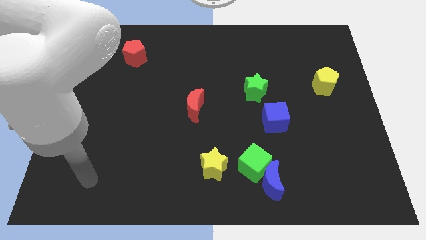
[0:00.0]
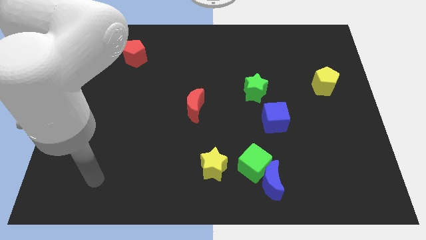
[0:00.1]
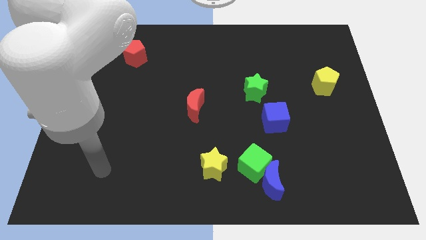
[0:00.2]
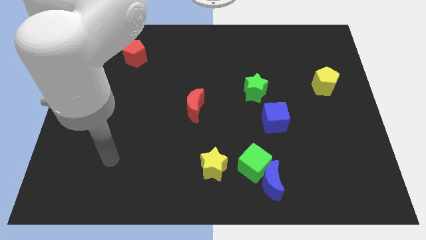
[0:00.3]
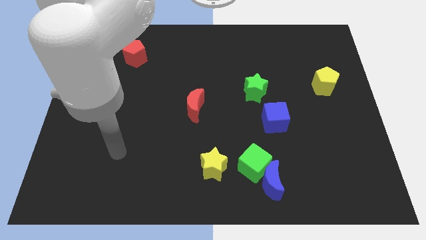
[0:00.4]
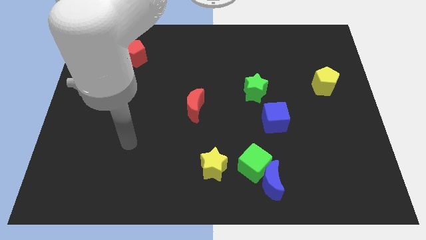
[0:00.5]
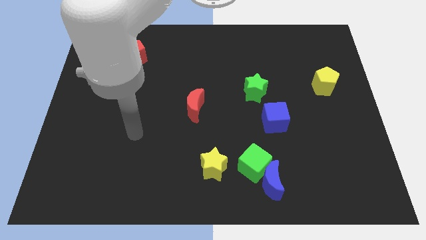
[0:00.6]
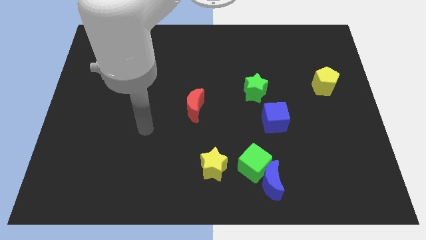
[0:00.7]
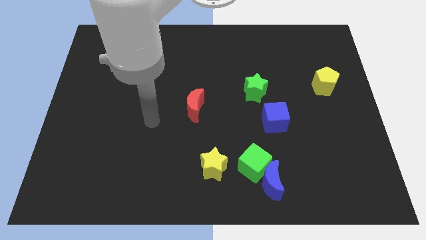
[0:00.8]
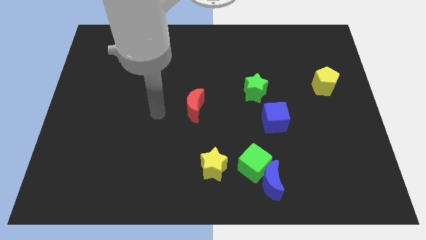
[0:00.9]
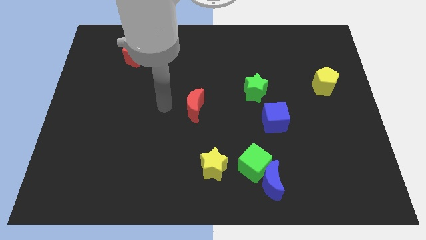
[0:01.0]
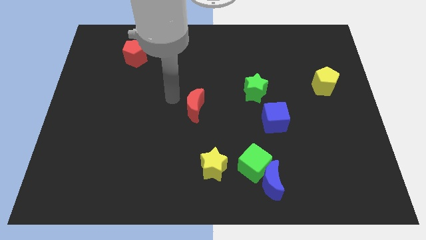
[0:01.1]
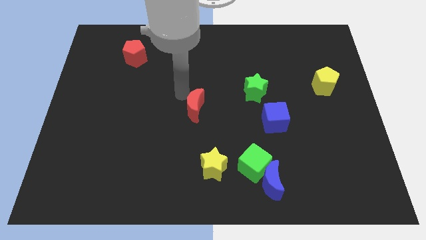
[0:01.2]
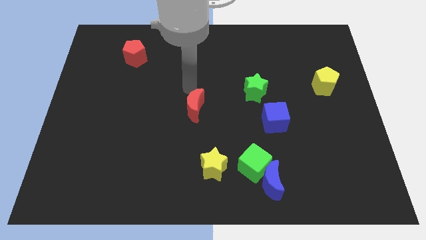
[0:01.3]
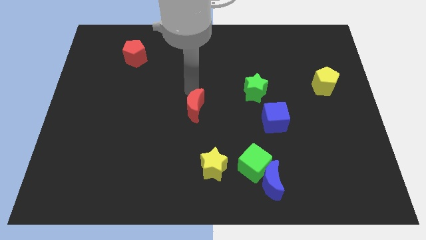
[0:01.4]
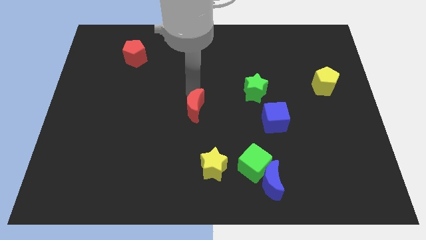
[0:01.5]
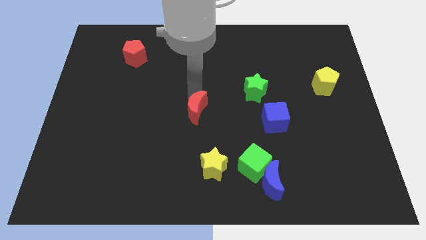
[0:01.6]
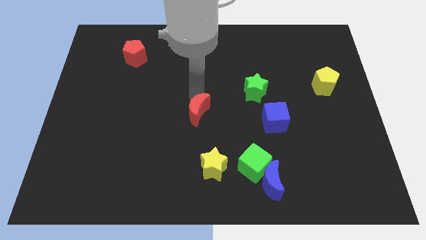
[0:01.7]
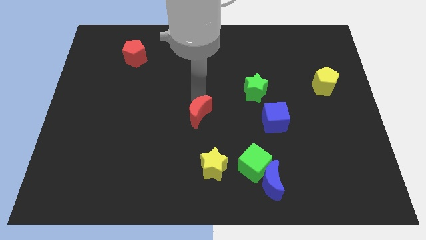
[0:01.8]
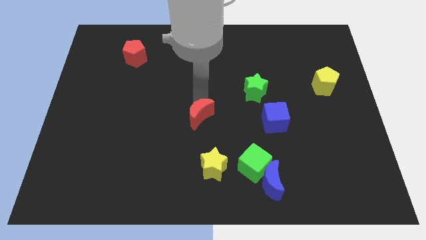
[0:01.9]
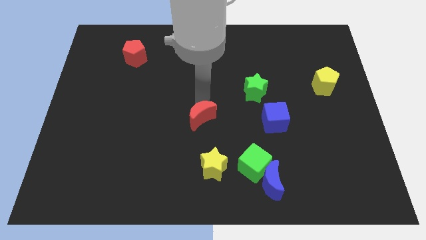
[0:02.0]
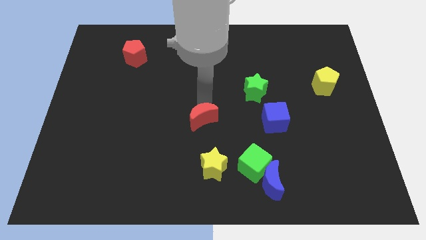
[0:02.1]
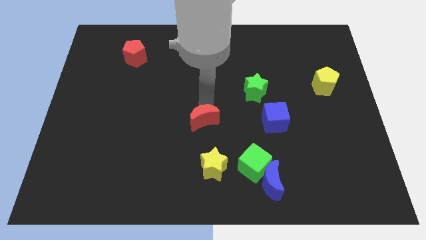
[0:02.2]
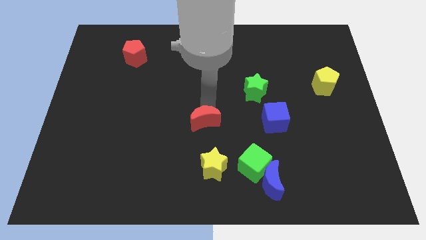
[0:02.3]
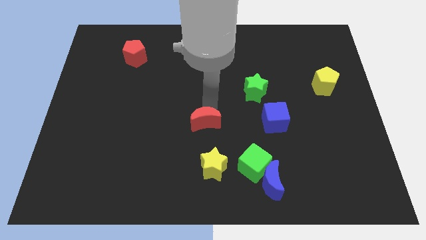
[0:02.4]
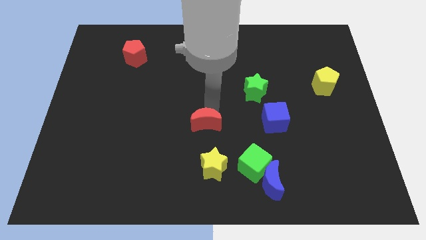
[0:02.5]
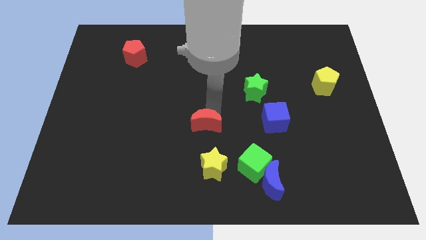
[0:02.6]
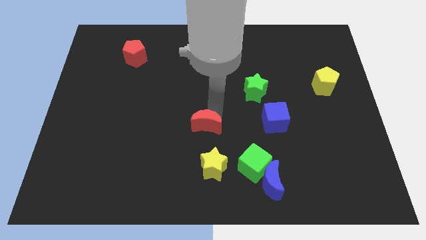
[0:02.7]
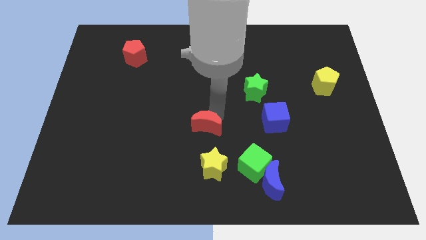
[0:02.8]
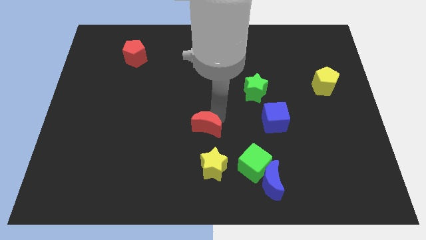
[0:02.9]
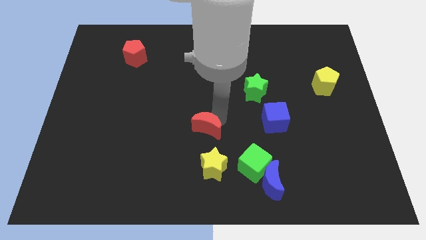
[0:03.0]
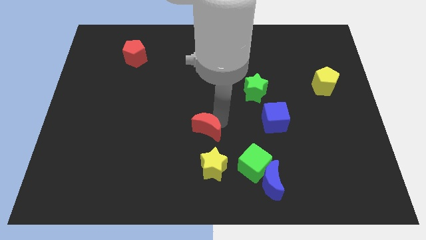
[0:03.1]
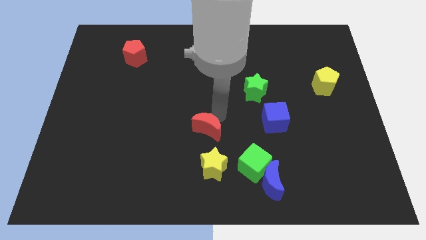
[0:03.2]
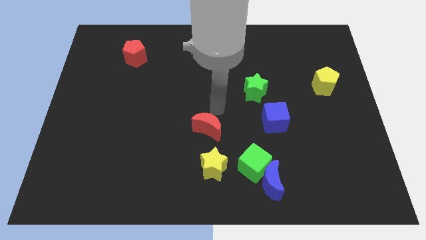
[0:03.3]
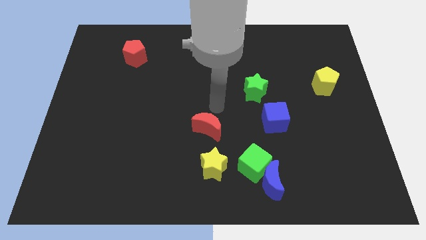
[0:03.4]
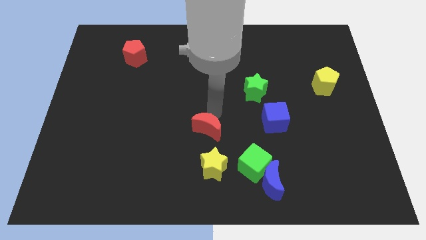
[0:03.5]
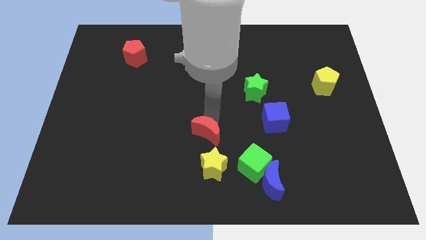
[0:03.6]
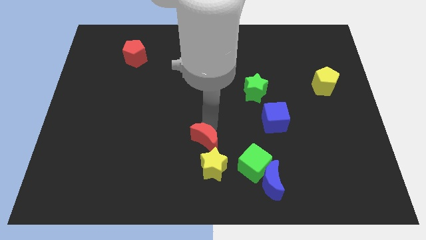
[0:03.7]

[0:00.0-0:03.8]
move the red moon a little bit downwards

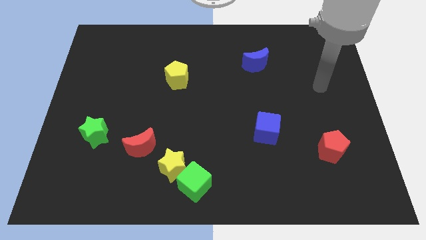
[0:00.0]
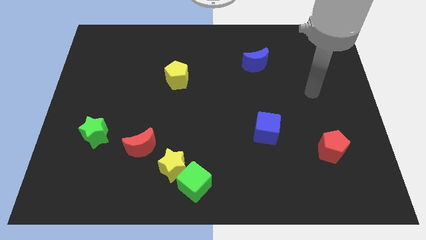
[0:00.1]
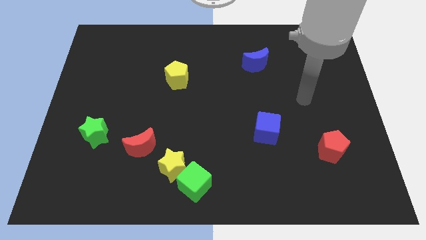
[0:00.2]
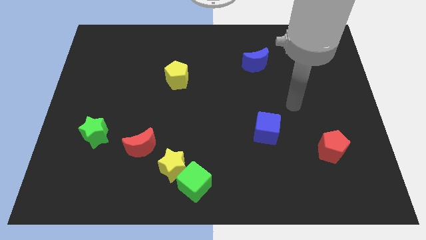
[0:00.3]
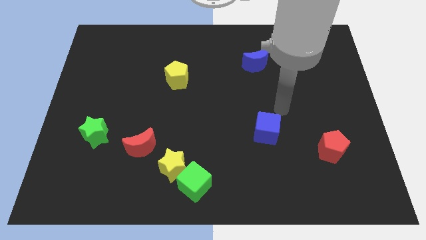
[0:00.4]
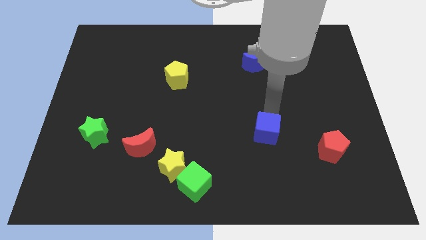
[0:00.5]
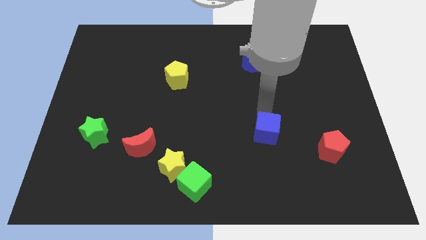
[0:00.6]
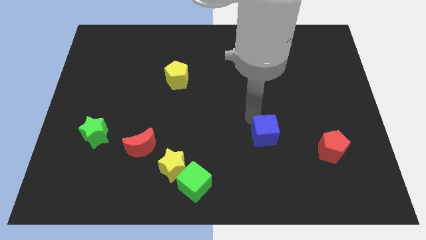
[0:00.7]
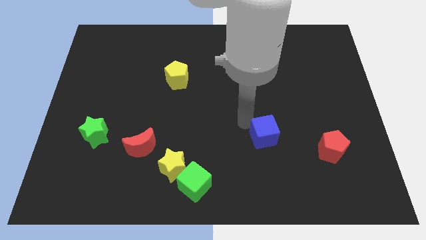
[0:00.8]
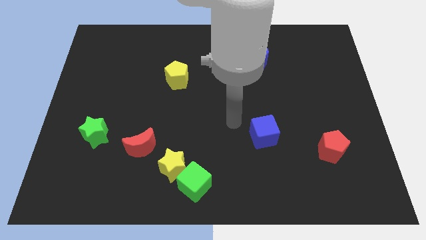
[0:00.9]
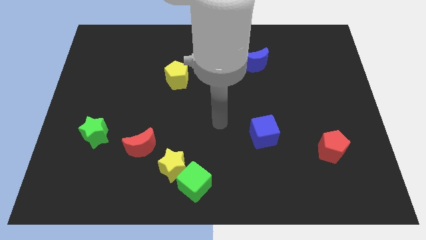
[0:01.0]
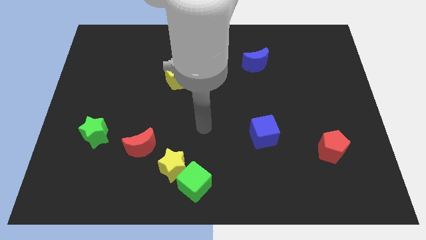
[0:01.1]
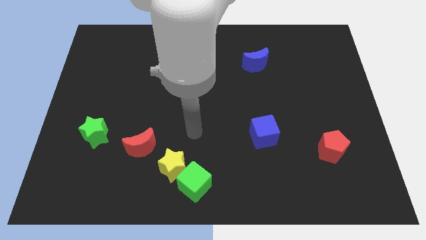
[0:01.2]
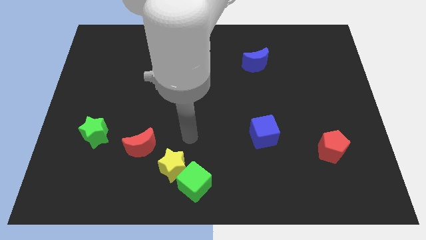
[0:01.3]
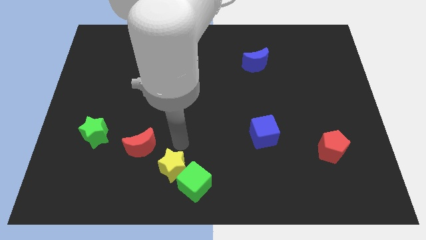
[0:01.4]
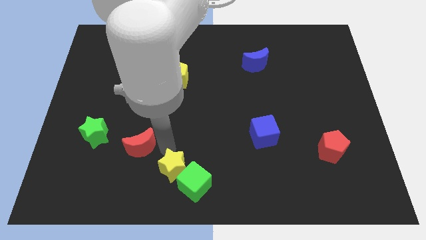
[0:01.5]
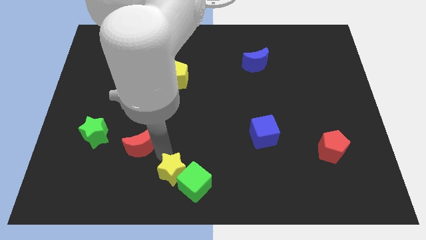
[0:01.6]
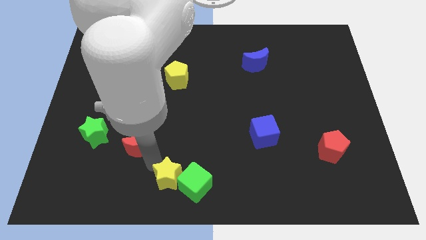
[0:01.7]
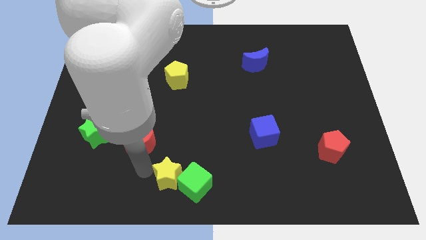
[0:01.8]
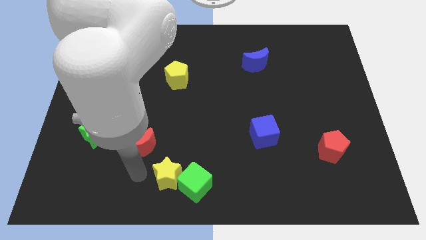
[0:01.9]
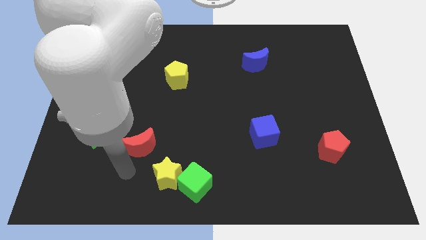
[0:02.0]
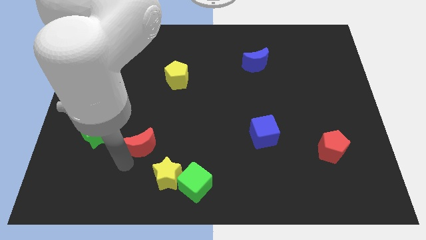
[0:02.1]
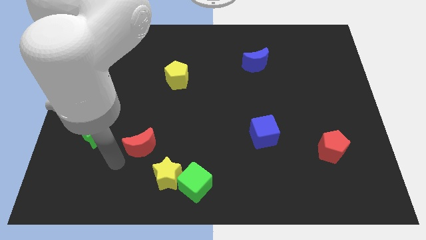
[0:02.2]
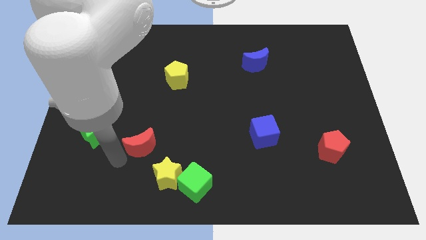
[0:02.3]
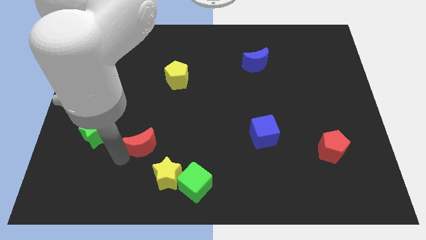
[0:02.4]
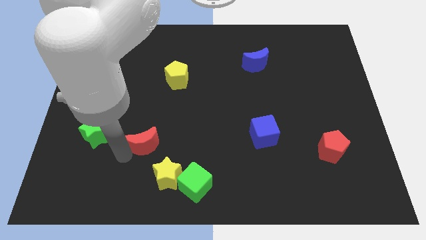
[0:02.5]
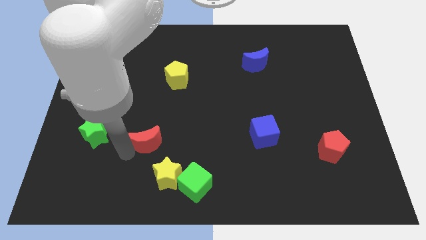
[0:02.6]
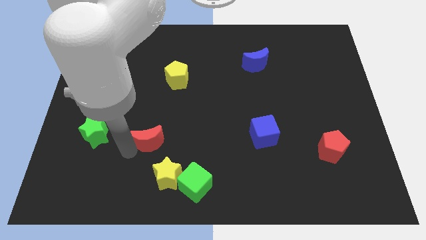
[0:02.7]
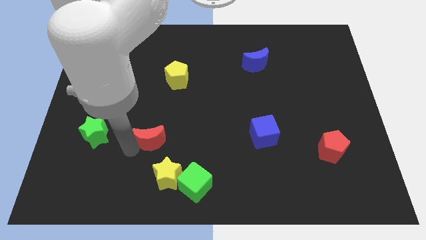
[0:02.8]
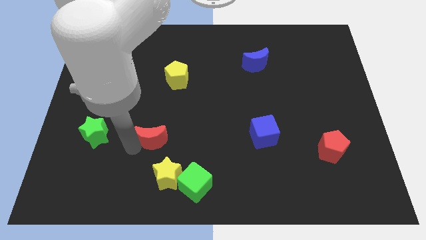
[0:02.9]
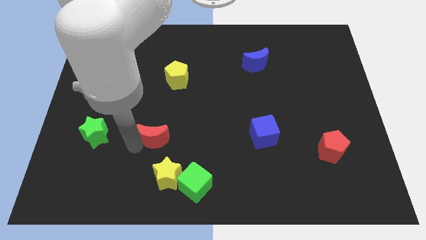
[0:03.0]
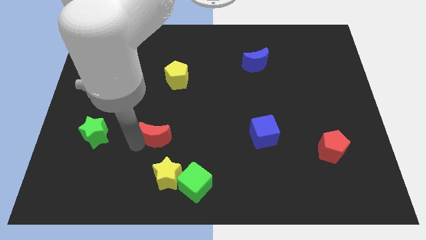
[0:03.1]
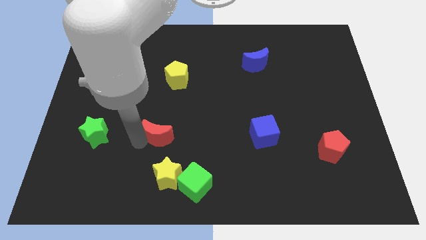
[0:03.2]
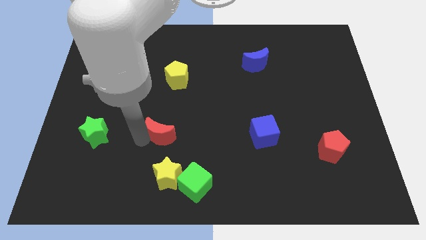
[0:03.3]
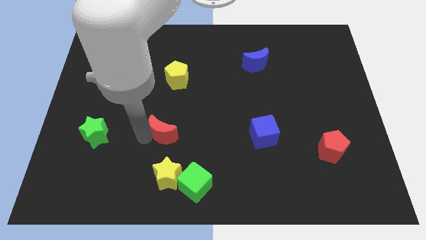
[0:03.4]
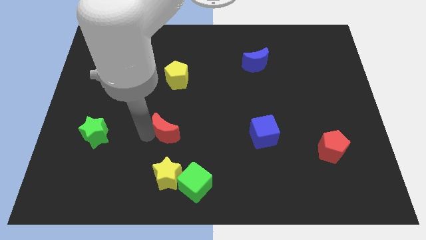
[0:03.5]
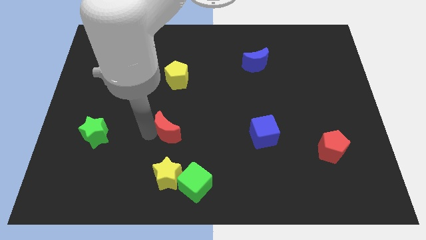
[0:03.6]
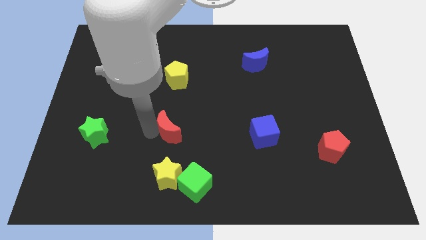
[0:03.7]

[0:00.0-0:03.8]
slide the red moon up and then to the right slightly

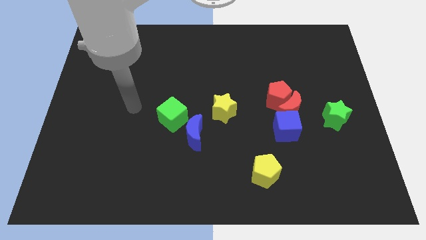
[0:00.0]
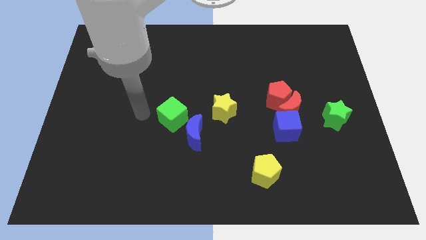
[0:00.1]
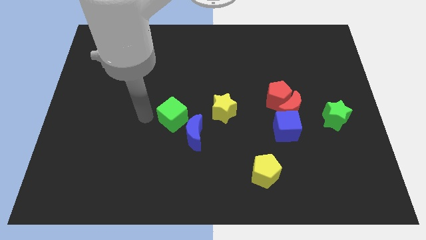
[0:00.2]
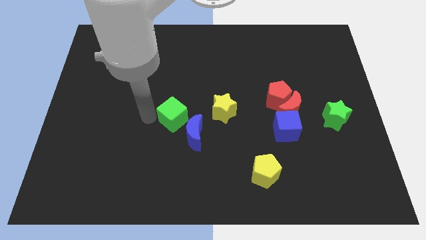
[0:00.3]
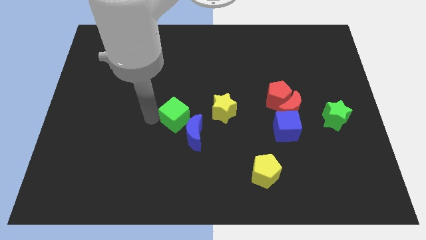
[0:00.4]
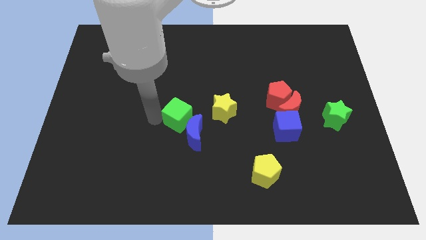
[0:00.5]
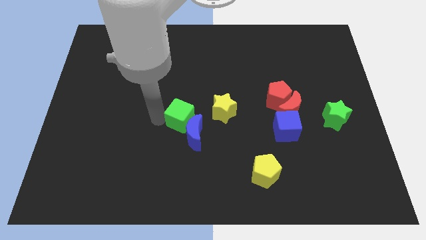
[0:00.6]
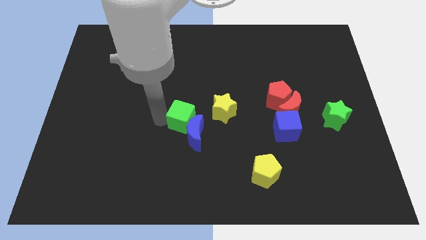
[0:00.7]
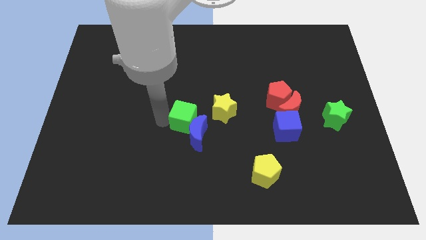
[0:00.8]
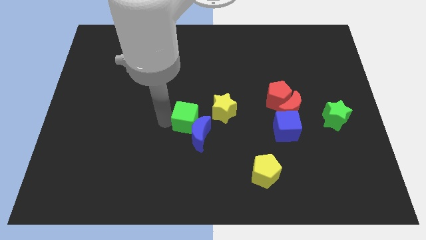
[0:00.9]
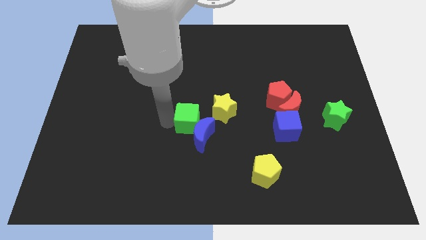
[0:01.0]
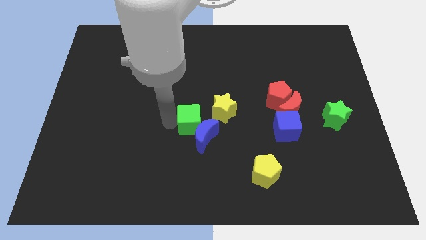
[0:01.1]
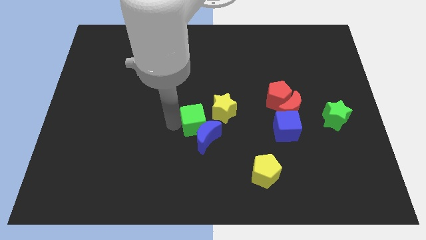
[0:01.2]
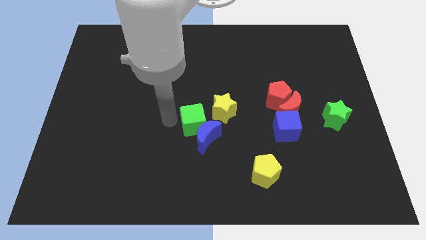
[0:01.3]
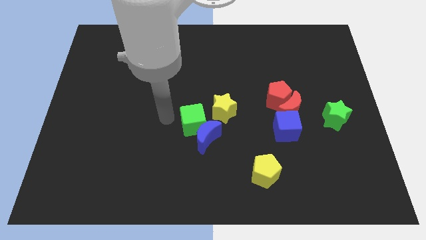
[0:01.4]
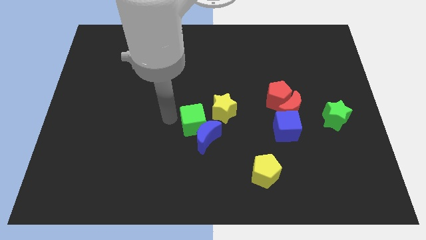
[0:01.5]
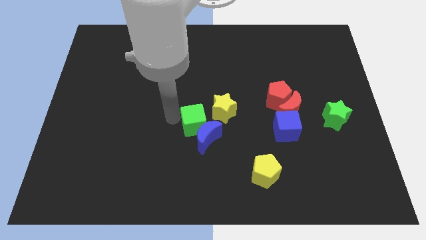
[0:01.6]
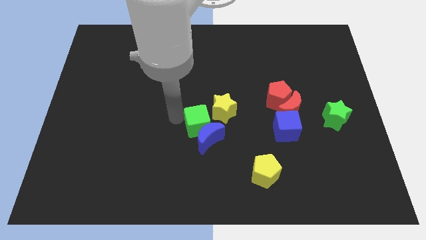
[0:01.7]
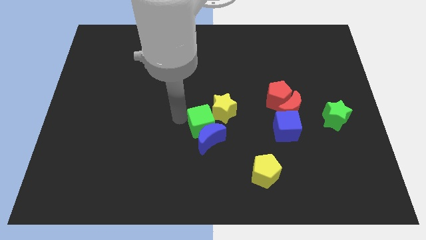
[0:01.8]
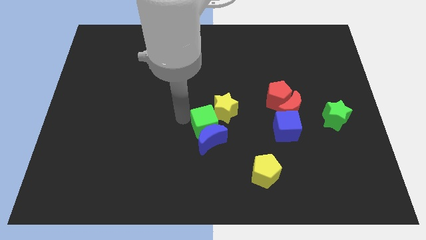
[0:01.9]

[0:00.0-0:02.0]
slide the green cube a little bit to the right
